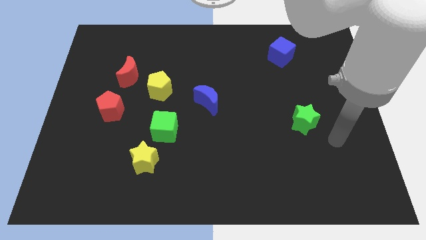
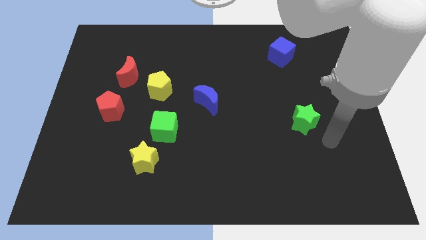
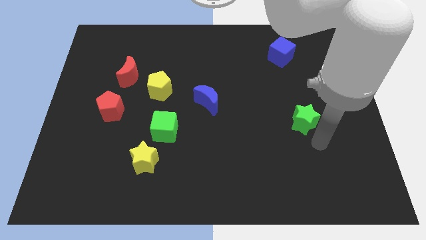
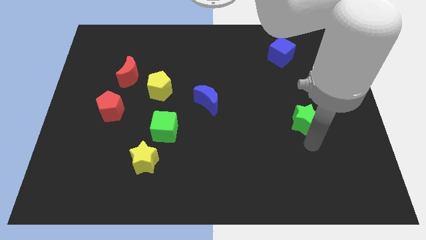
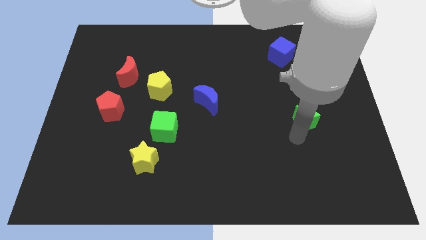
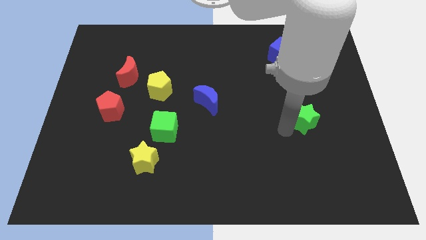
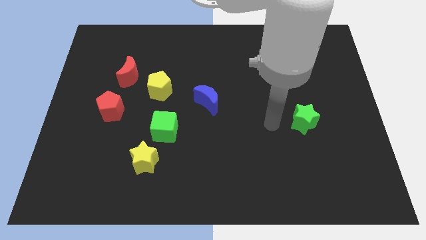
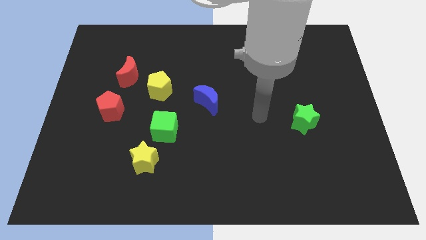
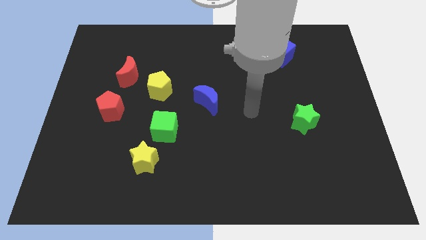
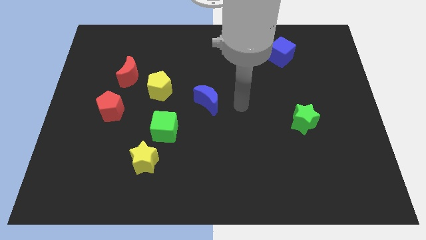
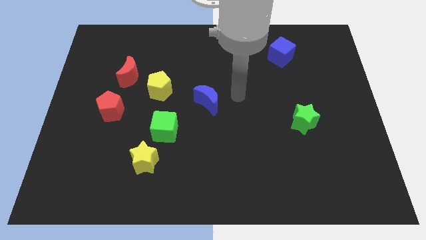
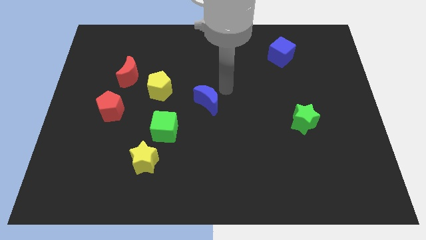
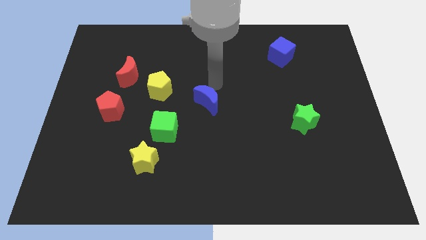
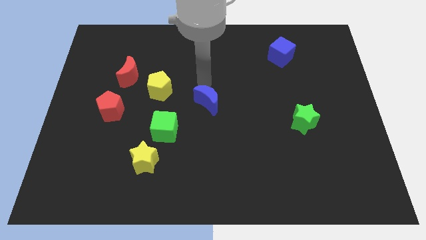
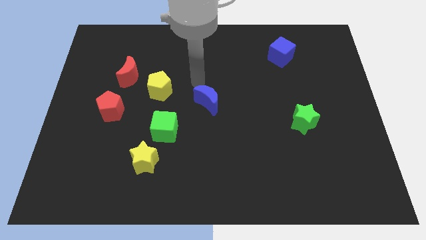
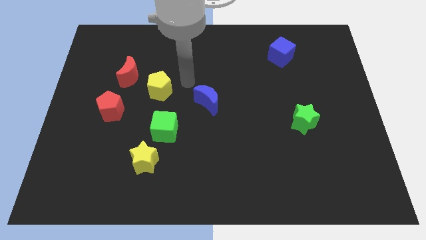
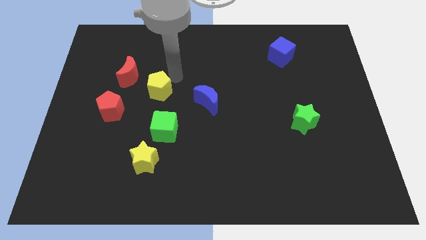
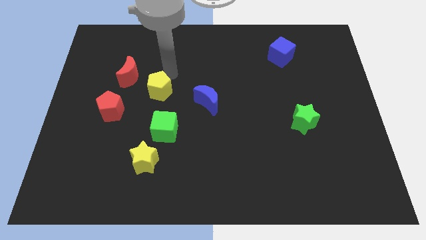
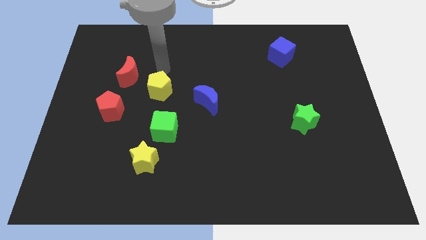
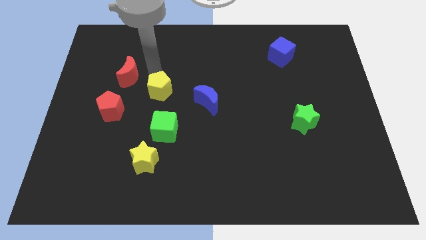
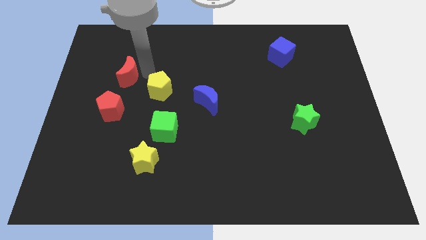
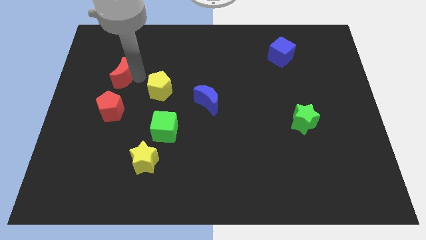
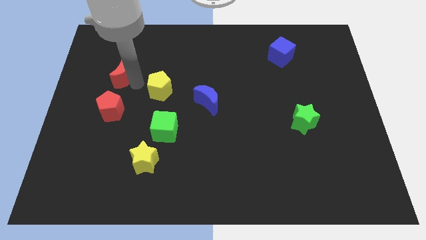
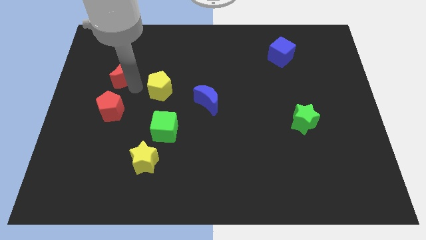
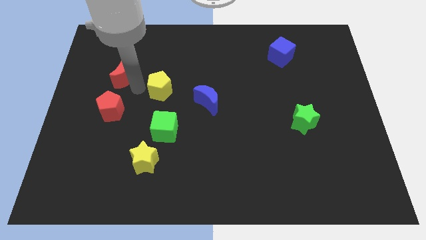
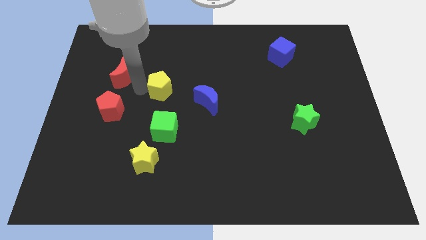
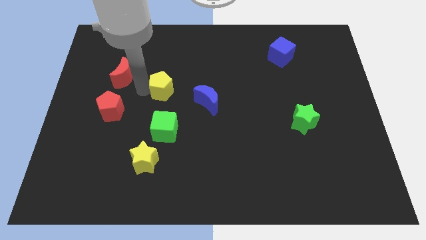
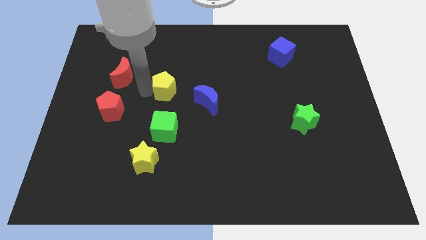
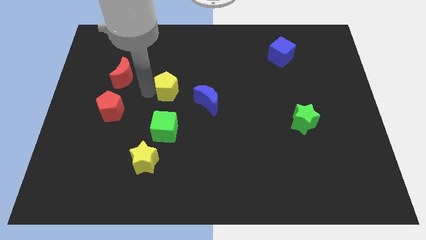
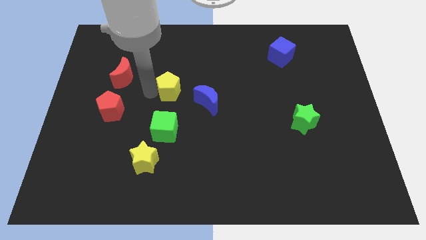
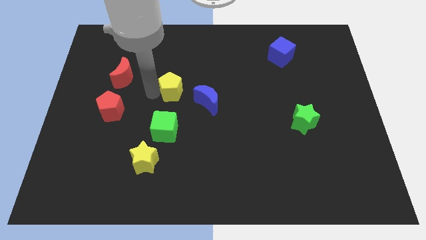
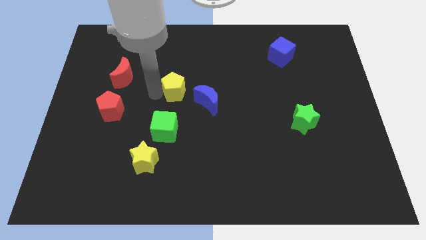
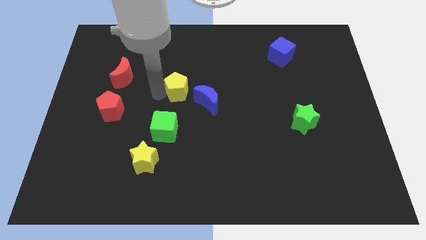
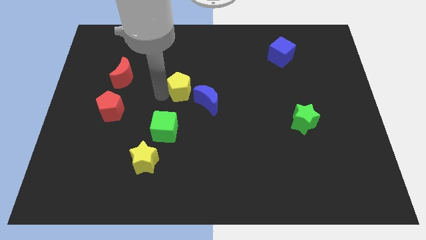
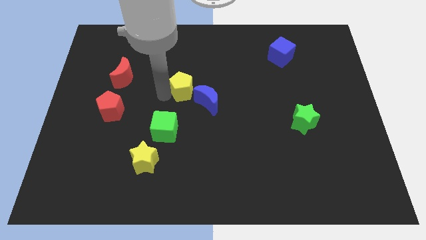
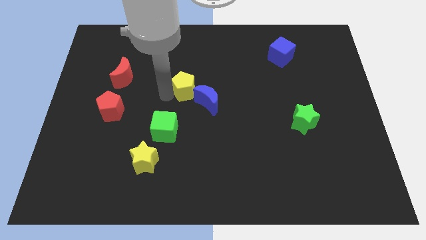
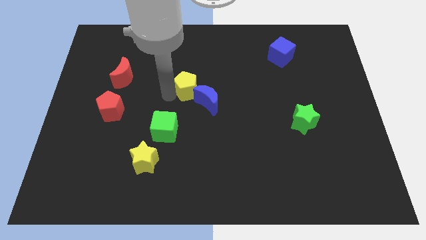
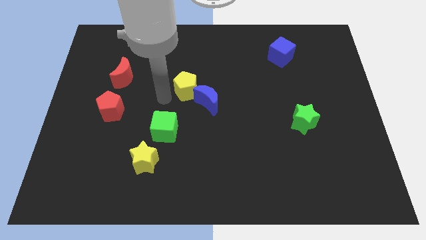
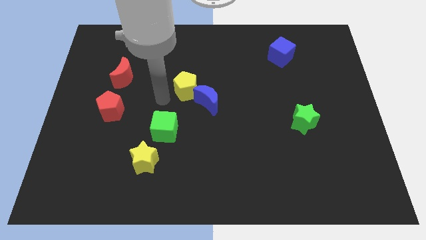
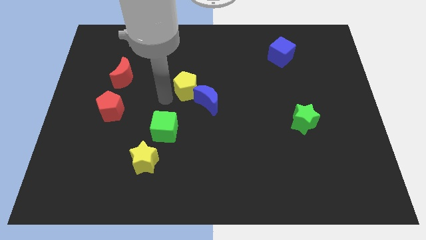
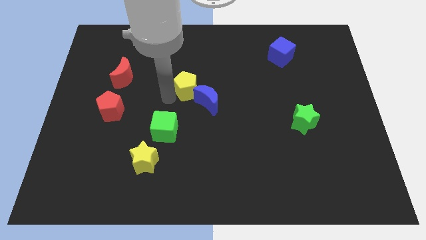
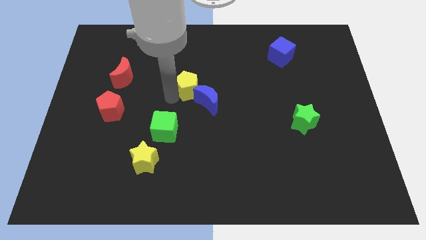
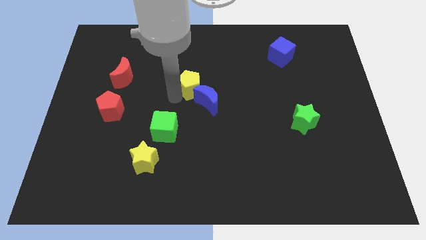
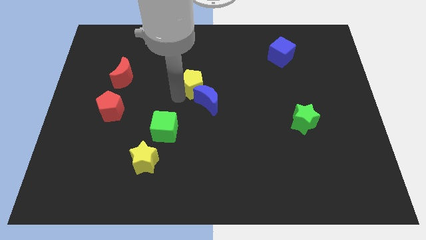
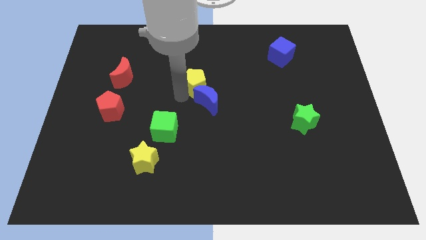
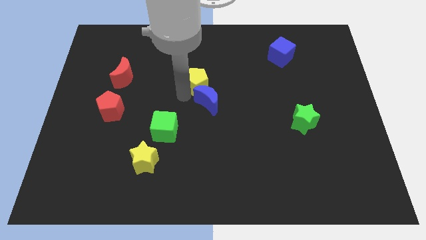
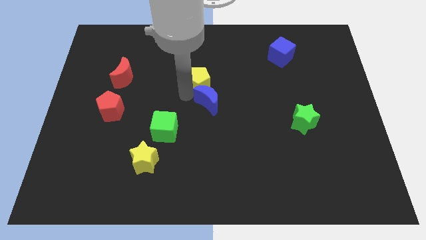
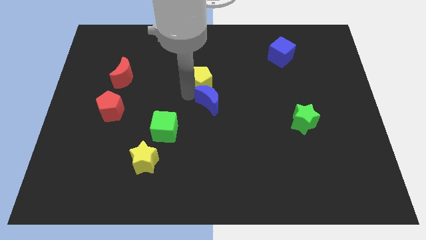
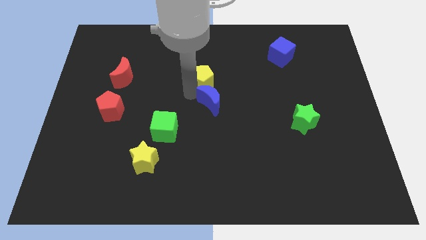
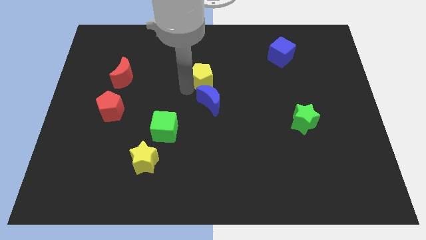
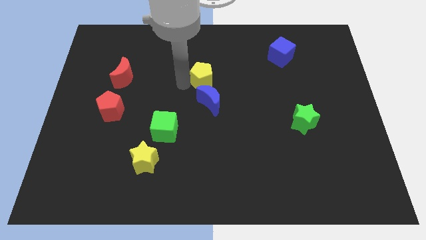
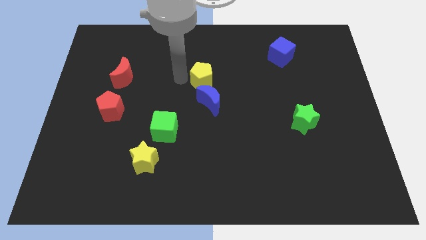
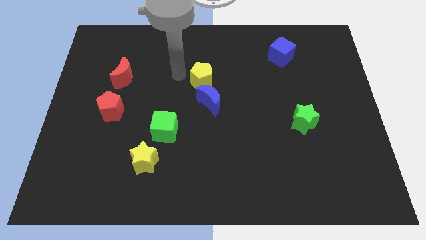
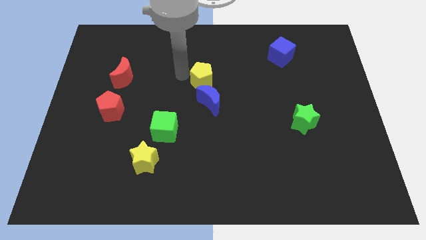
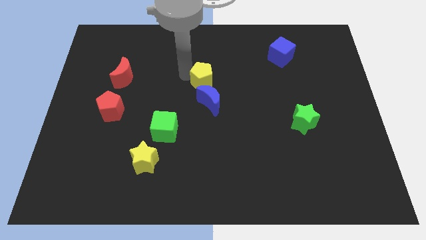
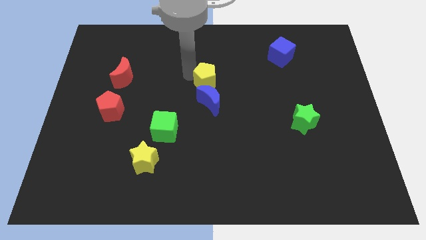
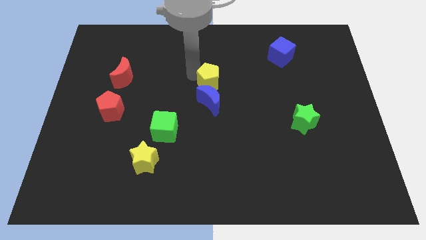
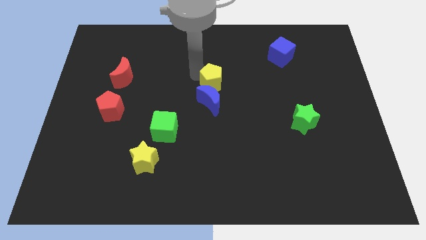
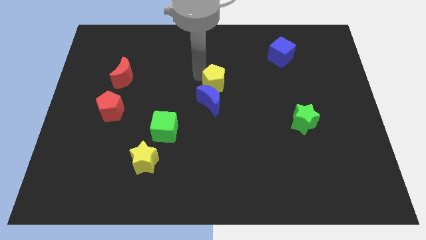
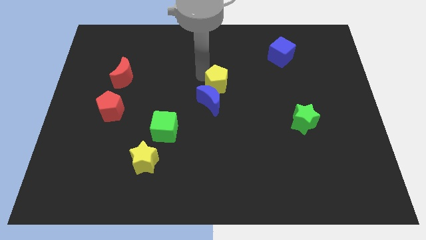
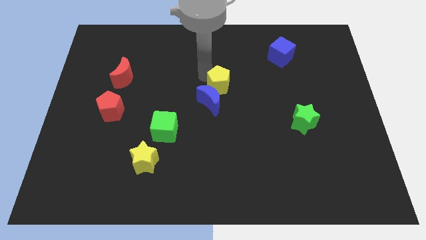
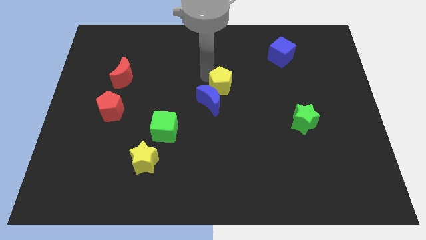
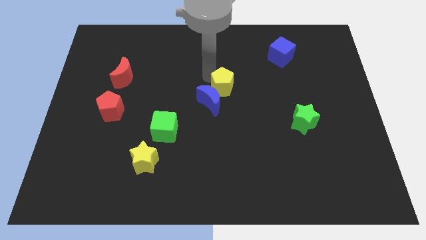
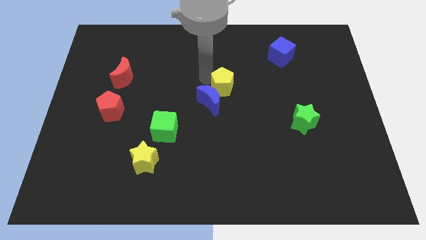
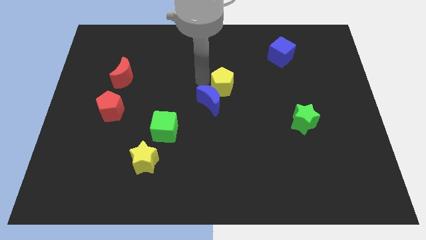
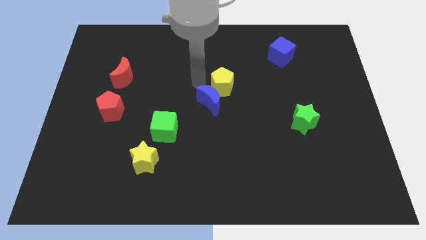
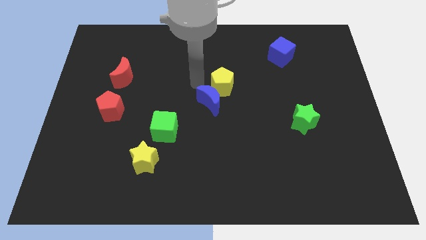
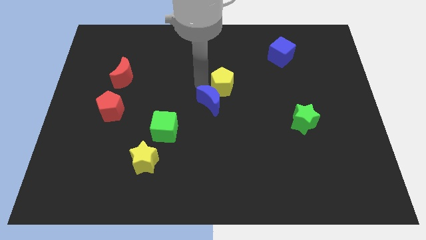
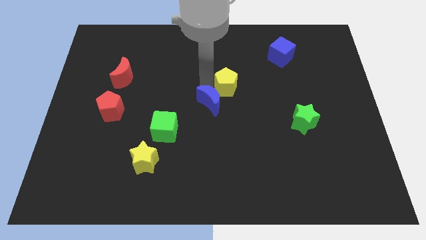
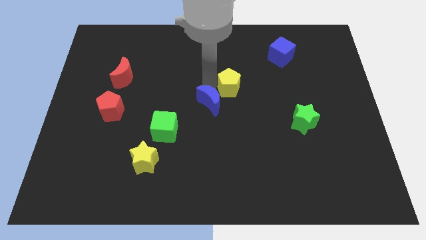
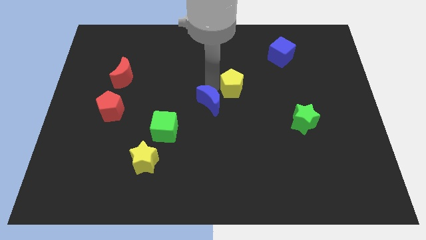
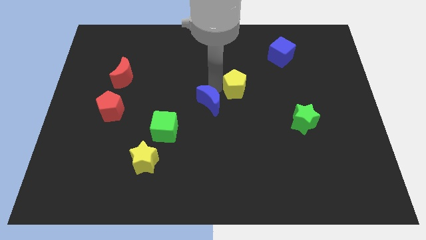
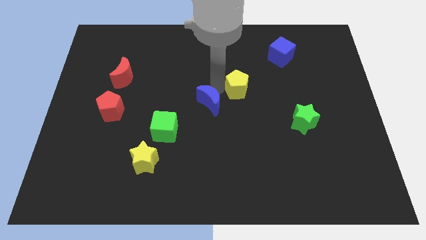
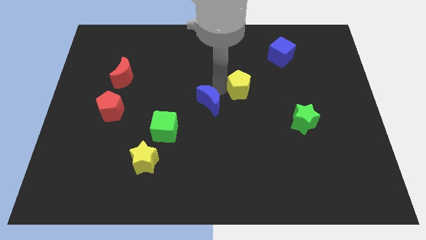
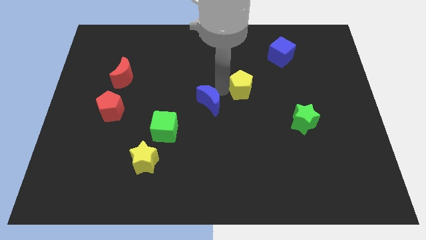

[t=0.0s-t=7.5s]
move the yellow pentagon right
